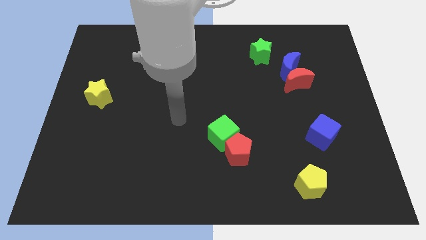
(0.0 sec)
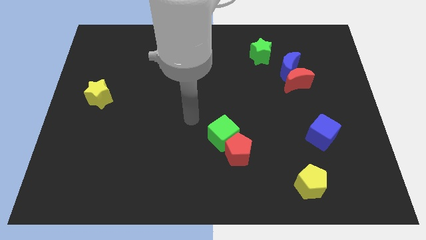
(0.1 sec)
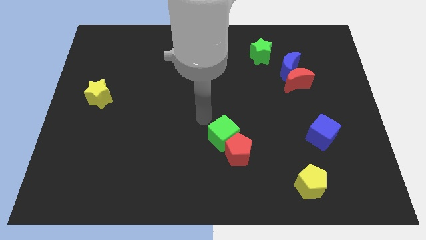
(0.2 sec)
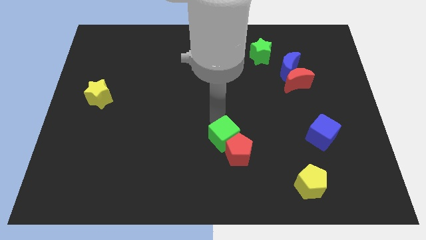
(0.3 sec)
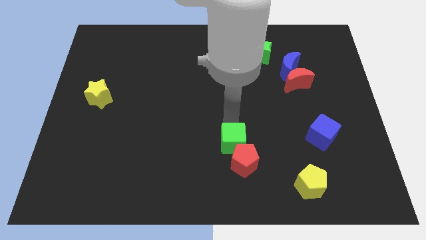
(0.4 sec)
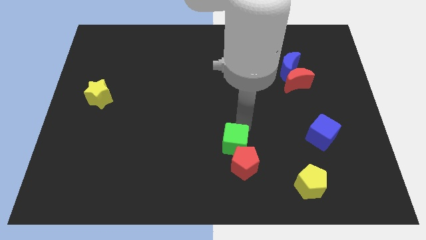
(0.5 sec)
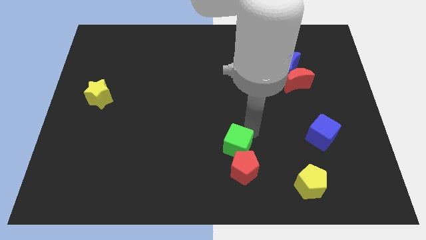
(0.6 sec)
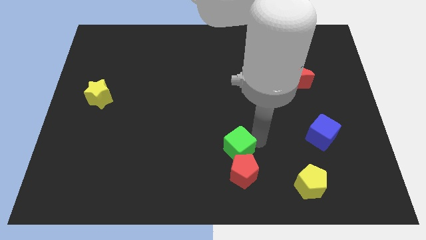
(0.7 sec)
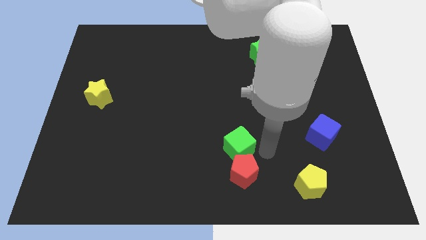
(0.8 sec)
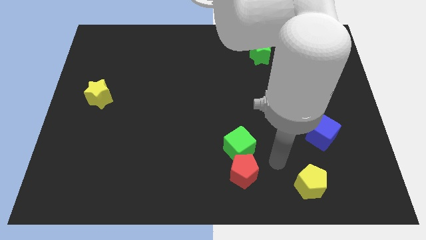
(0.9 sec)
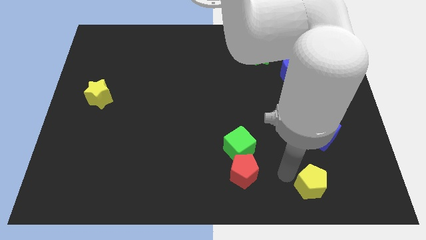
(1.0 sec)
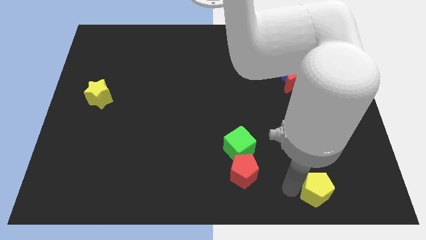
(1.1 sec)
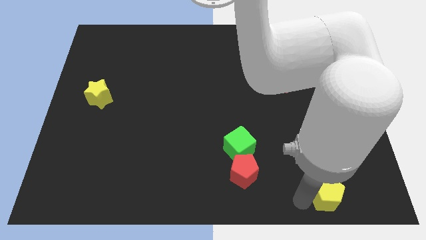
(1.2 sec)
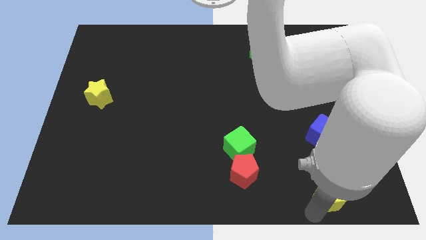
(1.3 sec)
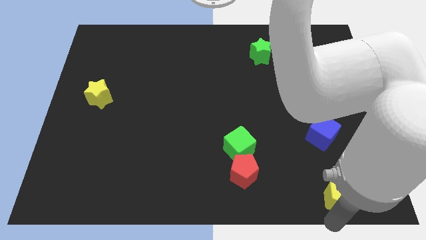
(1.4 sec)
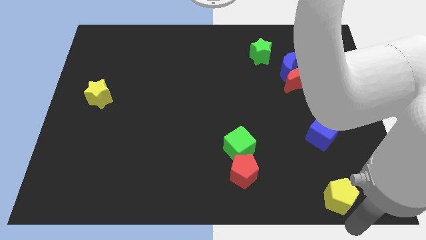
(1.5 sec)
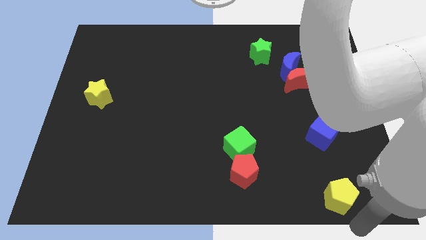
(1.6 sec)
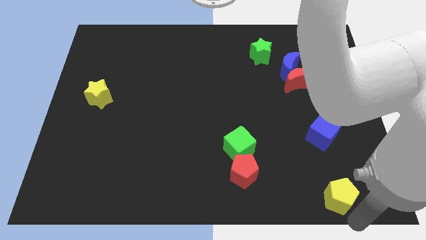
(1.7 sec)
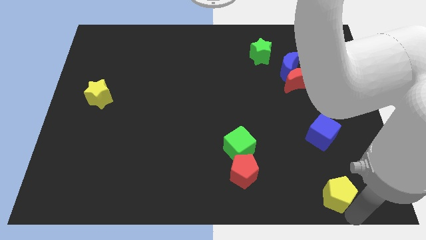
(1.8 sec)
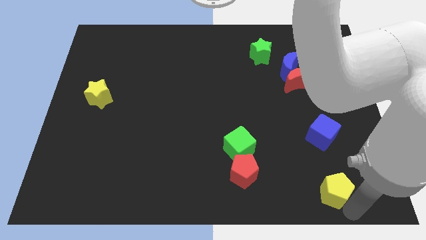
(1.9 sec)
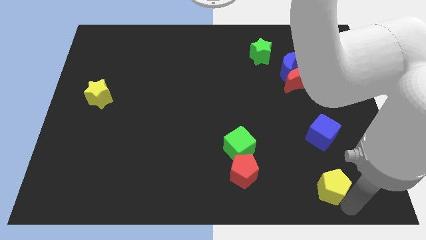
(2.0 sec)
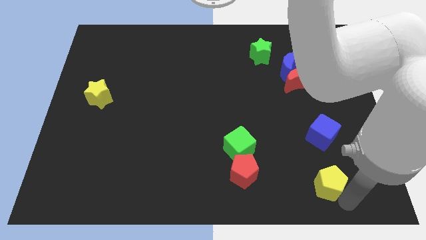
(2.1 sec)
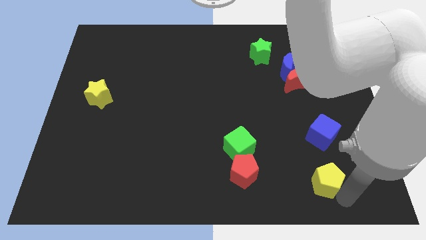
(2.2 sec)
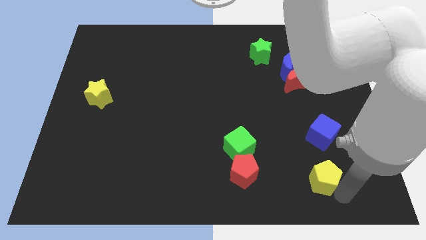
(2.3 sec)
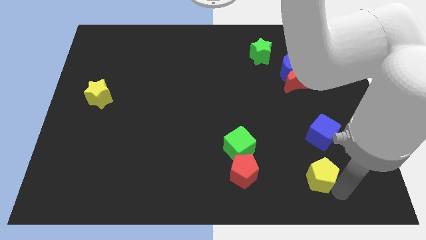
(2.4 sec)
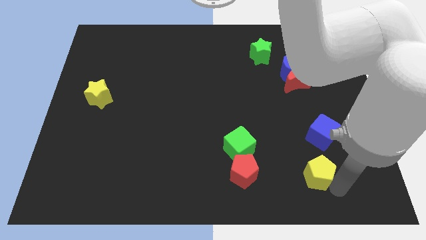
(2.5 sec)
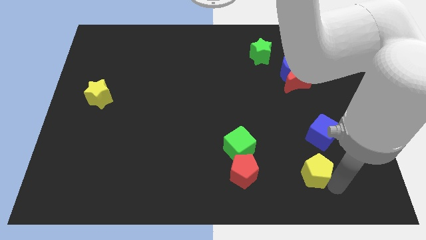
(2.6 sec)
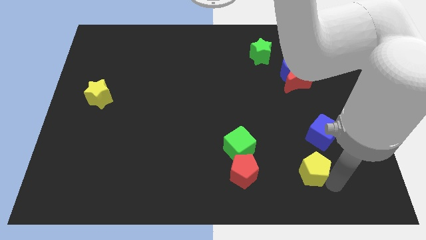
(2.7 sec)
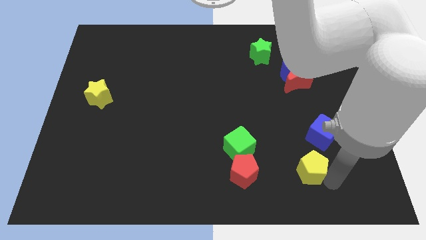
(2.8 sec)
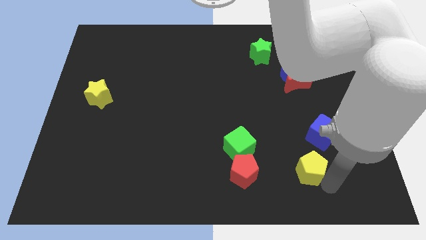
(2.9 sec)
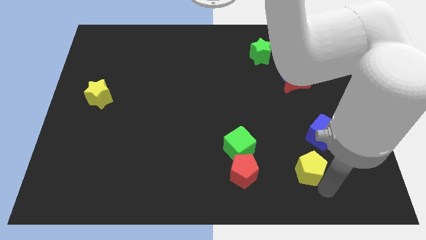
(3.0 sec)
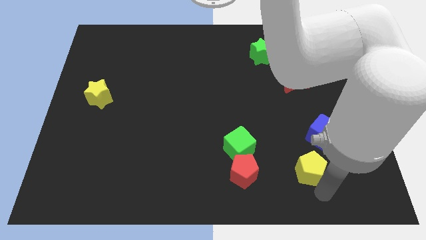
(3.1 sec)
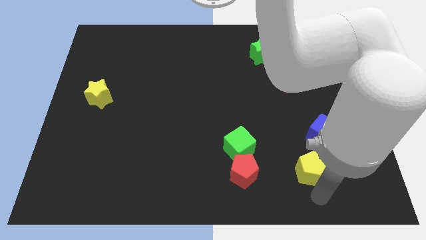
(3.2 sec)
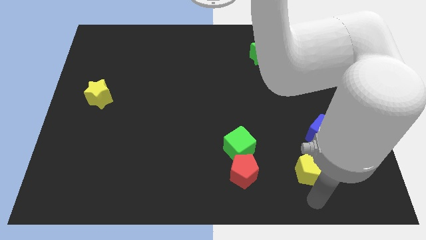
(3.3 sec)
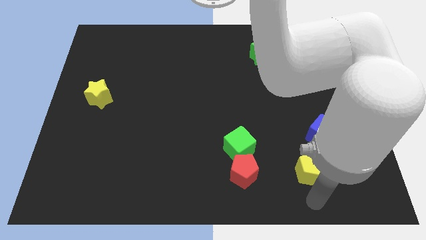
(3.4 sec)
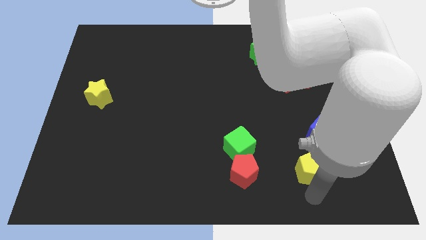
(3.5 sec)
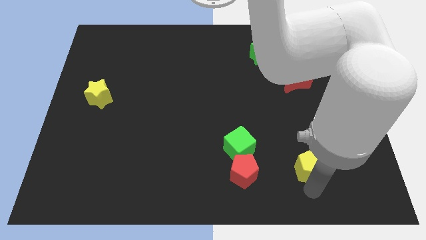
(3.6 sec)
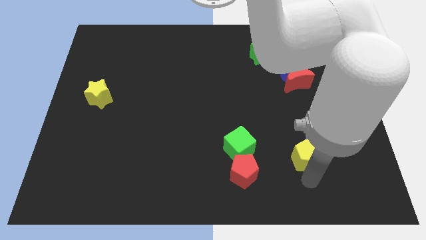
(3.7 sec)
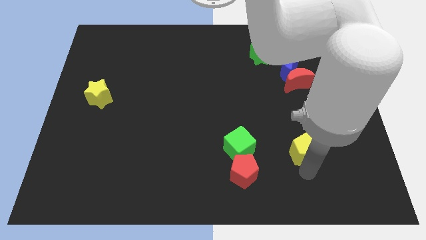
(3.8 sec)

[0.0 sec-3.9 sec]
slide the yellow pentagon up slightly

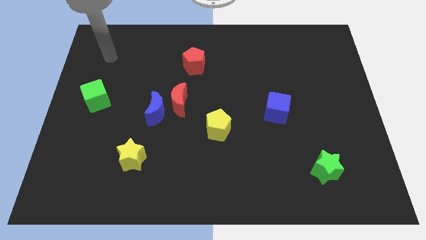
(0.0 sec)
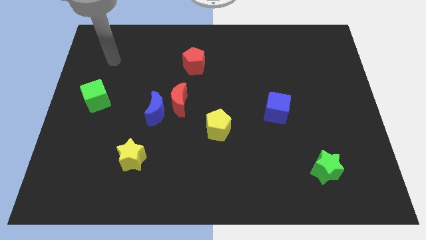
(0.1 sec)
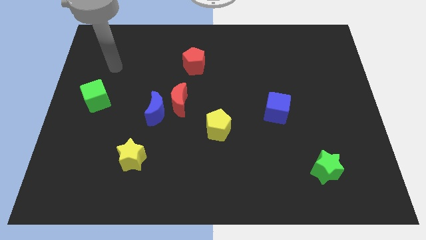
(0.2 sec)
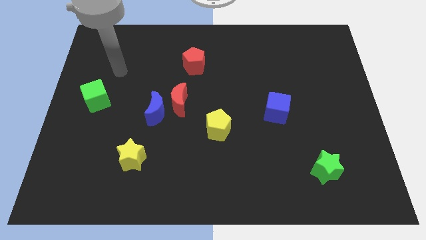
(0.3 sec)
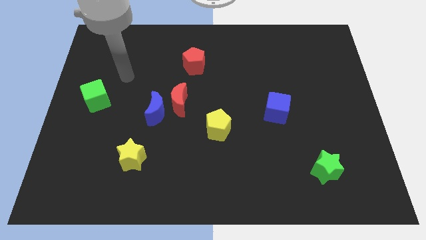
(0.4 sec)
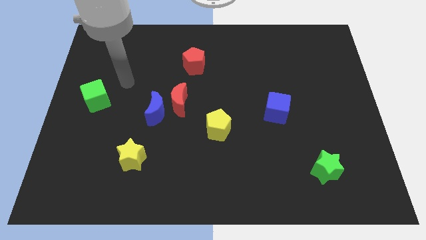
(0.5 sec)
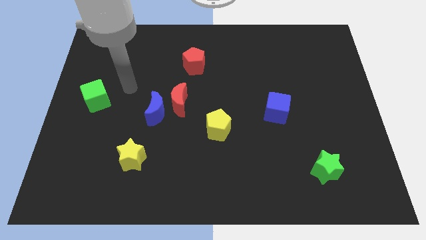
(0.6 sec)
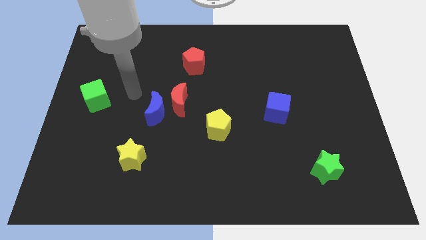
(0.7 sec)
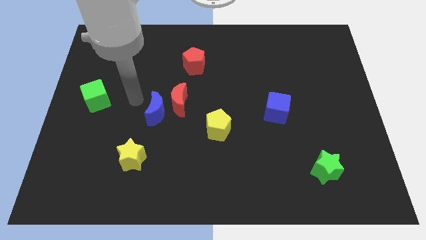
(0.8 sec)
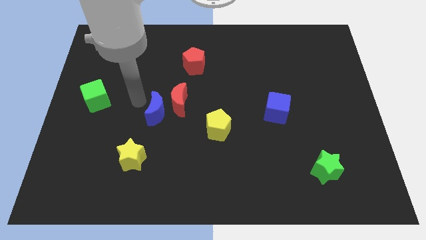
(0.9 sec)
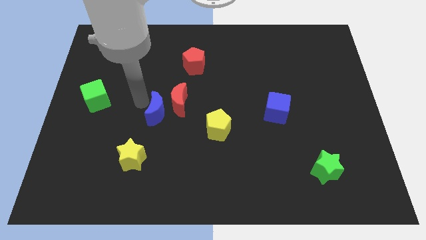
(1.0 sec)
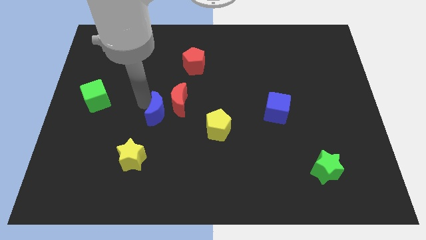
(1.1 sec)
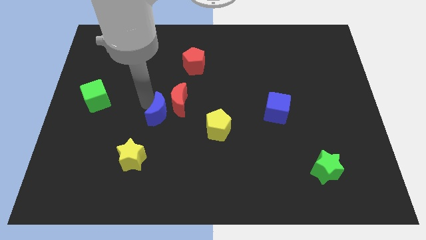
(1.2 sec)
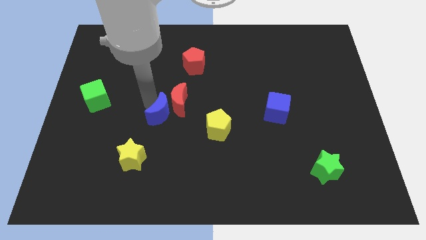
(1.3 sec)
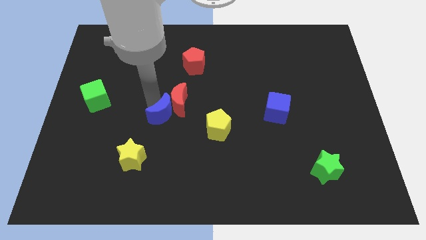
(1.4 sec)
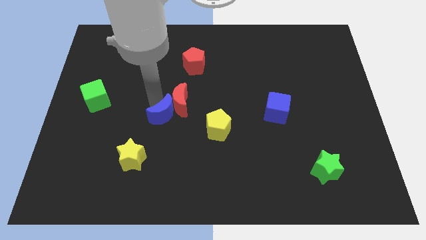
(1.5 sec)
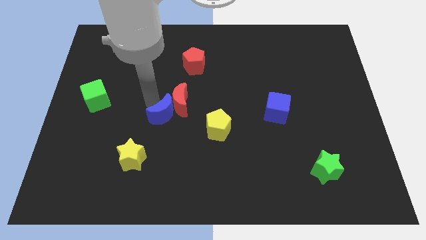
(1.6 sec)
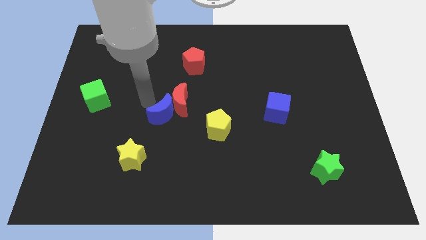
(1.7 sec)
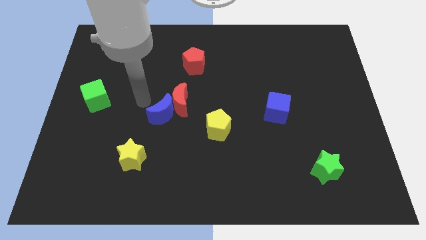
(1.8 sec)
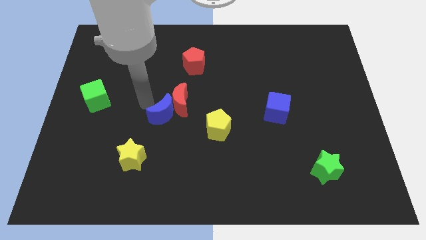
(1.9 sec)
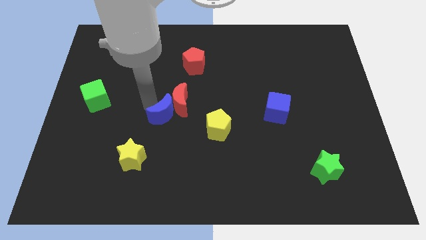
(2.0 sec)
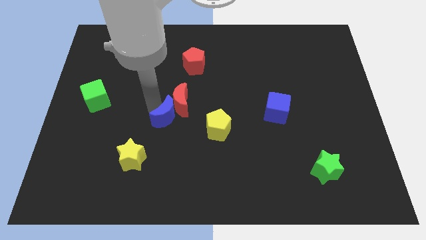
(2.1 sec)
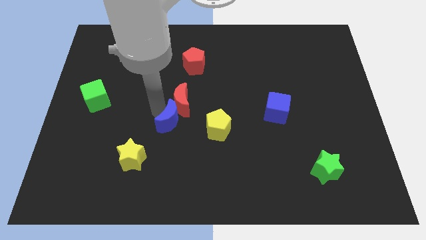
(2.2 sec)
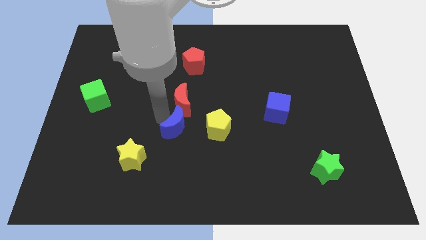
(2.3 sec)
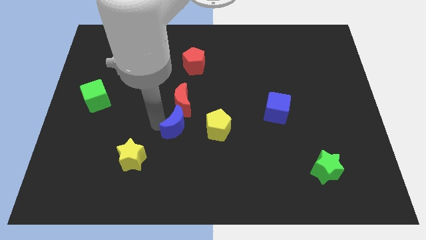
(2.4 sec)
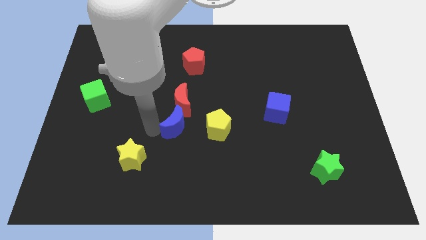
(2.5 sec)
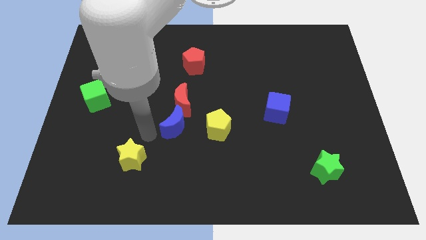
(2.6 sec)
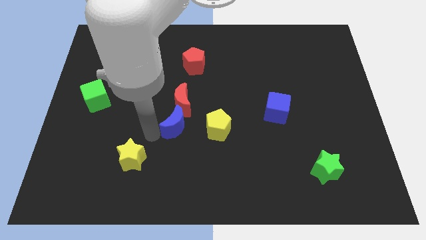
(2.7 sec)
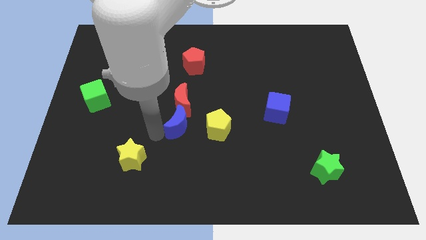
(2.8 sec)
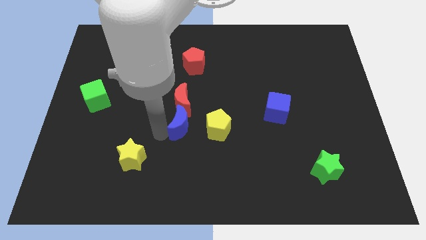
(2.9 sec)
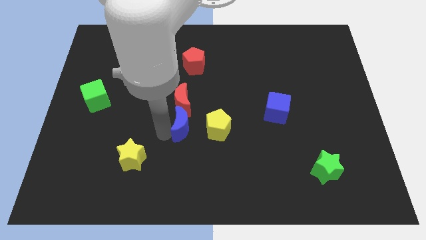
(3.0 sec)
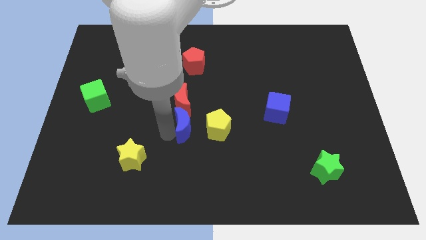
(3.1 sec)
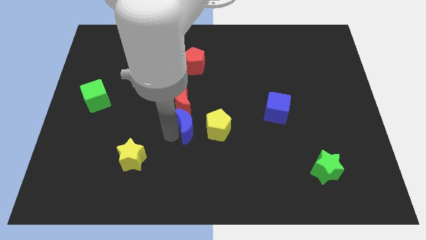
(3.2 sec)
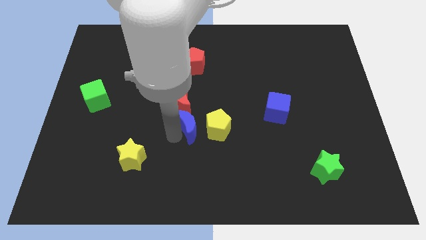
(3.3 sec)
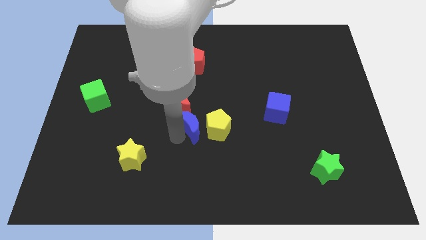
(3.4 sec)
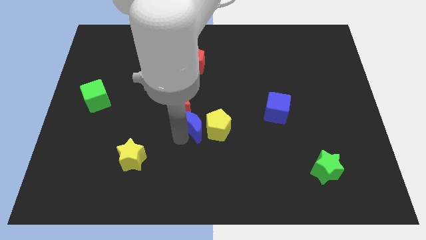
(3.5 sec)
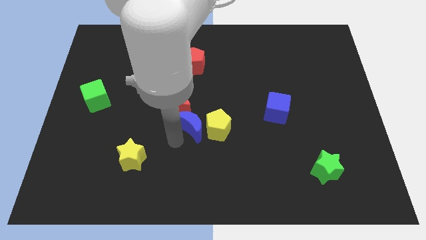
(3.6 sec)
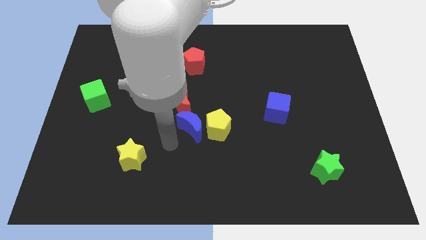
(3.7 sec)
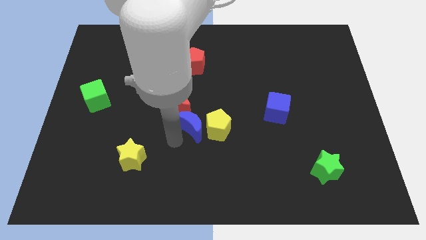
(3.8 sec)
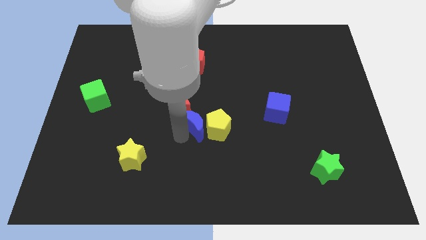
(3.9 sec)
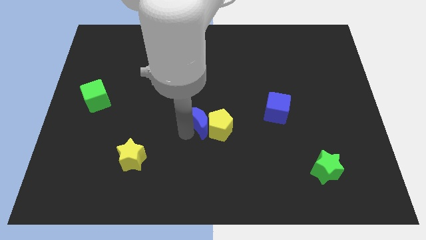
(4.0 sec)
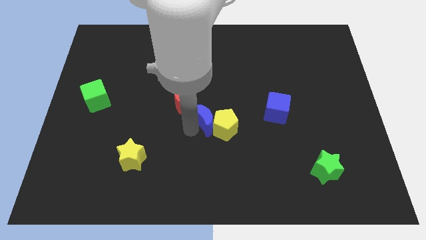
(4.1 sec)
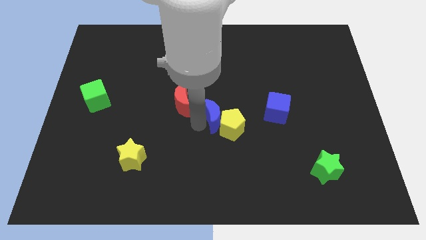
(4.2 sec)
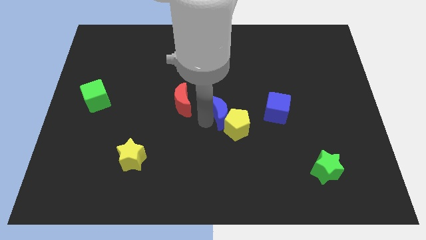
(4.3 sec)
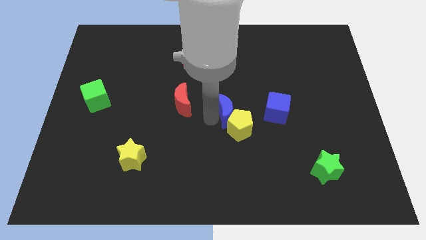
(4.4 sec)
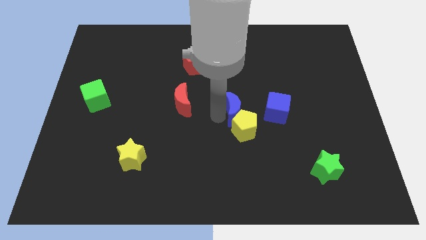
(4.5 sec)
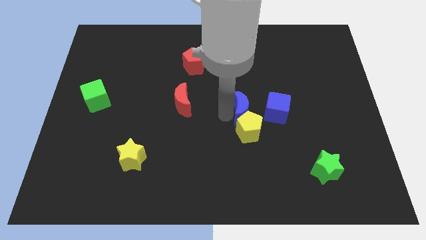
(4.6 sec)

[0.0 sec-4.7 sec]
push the blue moon right
